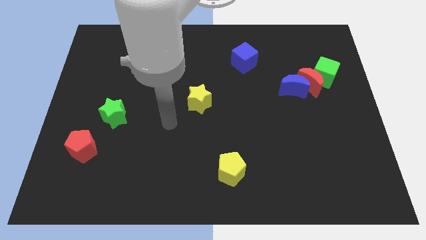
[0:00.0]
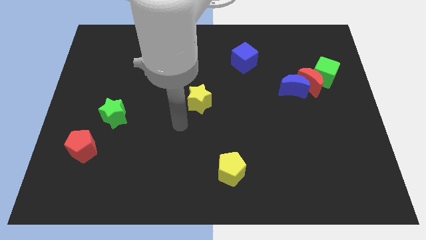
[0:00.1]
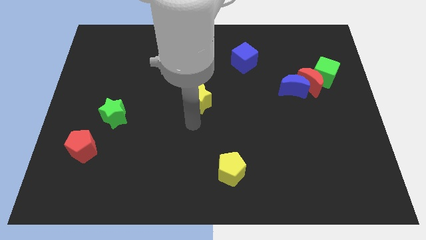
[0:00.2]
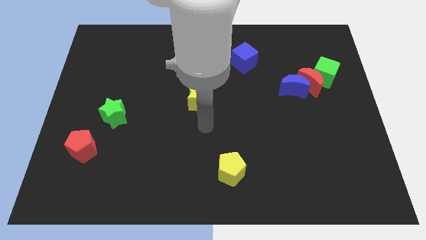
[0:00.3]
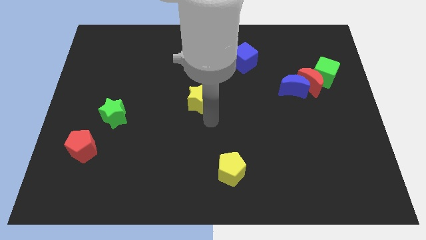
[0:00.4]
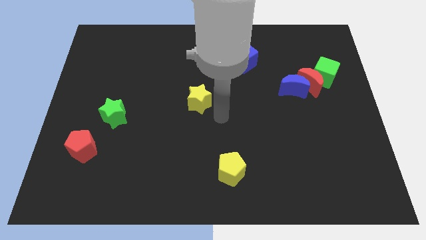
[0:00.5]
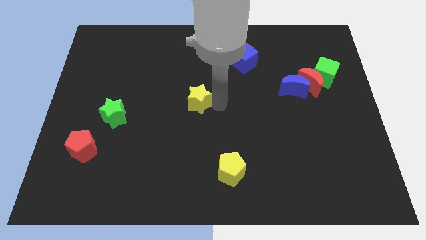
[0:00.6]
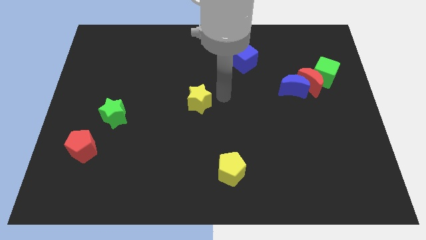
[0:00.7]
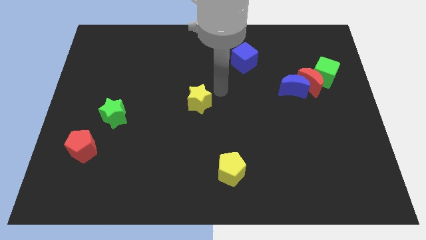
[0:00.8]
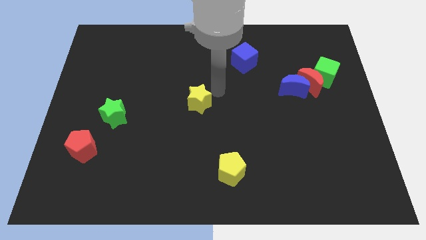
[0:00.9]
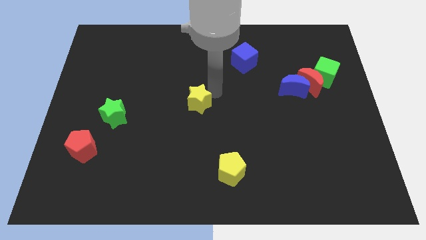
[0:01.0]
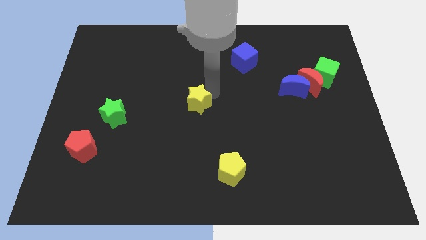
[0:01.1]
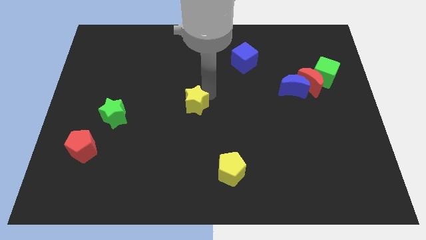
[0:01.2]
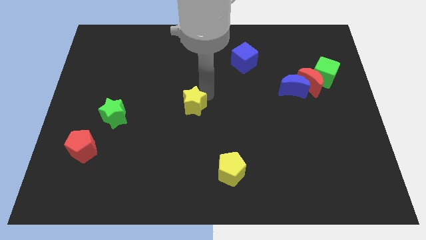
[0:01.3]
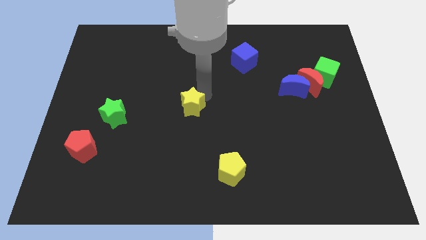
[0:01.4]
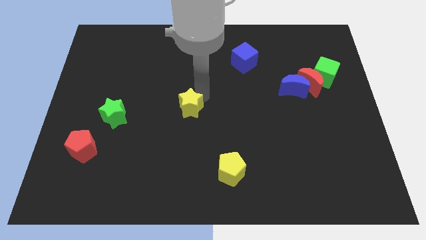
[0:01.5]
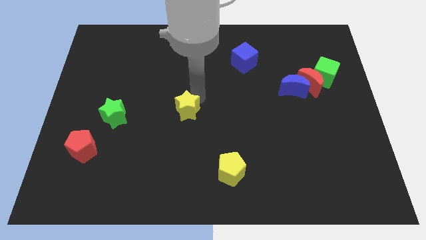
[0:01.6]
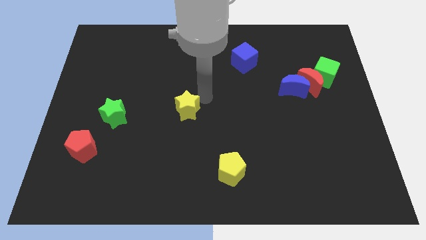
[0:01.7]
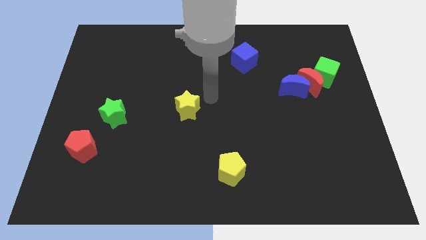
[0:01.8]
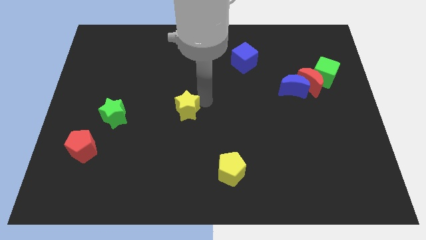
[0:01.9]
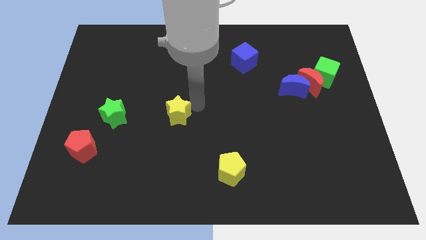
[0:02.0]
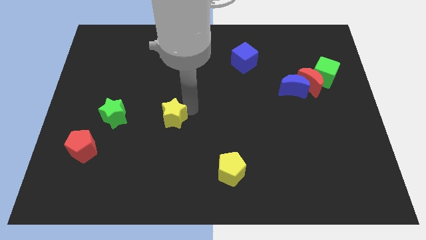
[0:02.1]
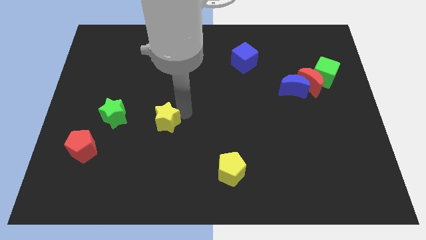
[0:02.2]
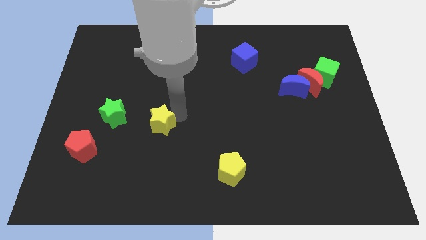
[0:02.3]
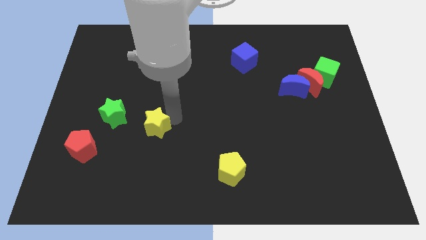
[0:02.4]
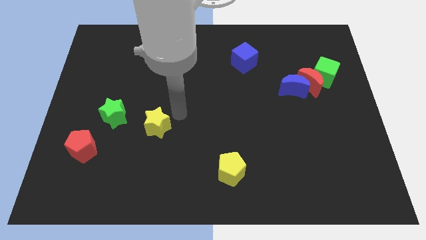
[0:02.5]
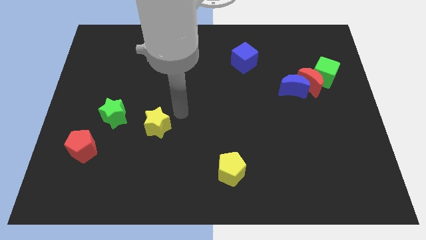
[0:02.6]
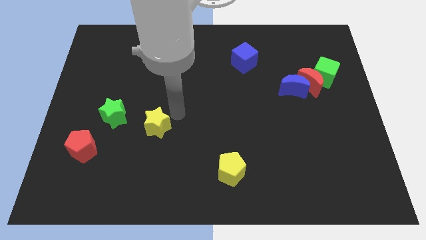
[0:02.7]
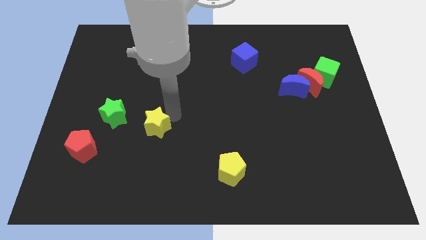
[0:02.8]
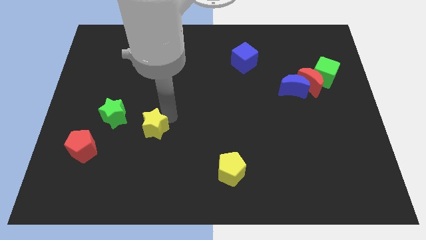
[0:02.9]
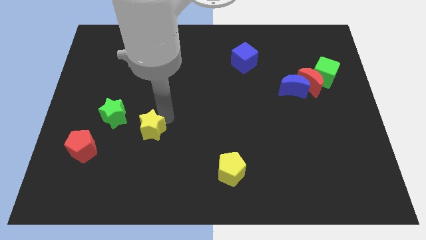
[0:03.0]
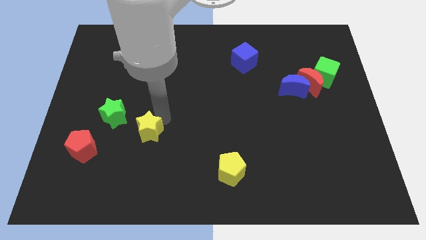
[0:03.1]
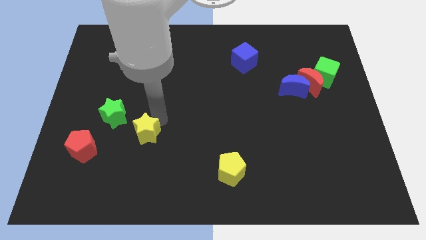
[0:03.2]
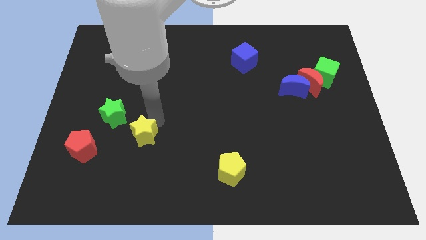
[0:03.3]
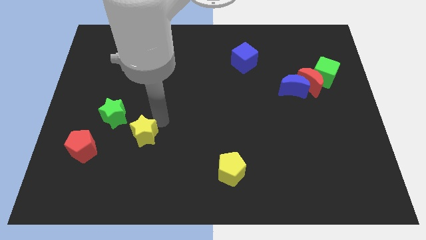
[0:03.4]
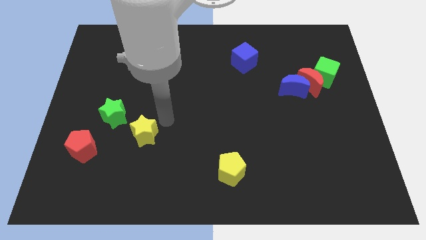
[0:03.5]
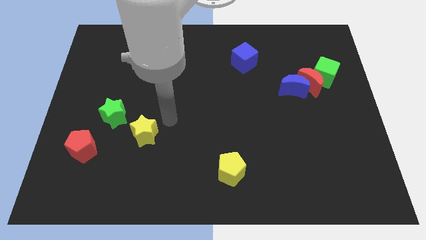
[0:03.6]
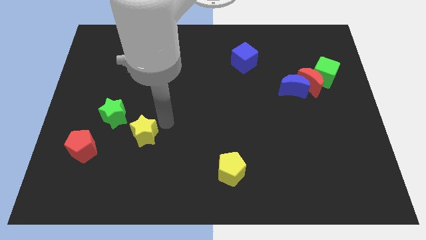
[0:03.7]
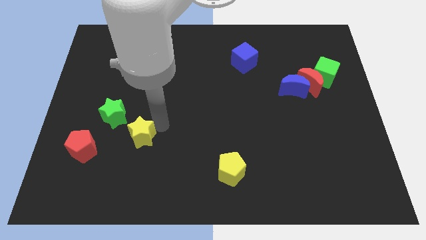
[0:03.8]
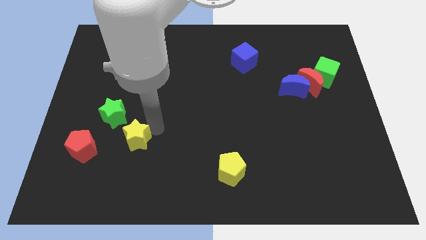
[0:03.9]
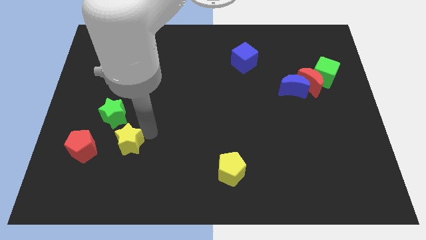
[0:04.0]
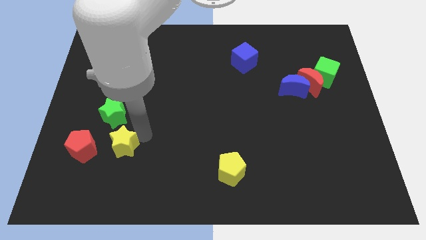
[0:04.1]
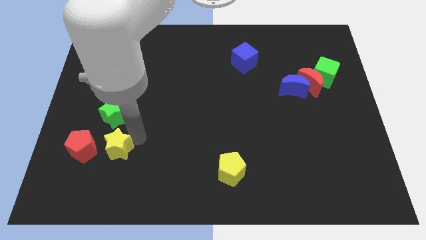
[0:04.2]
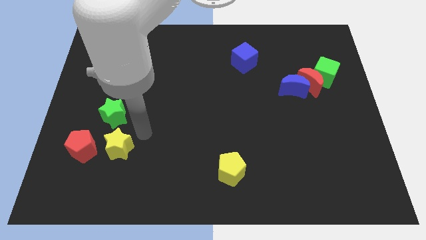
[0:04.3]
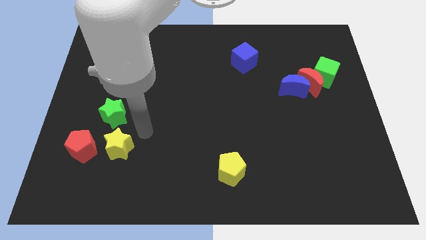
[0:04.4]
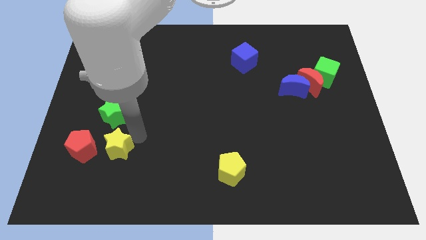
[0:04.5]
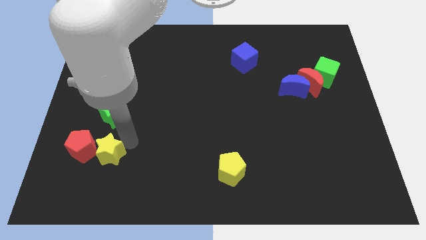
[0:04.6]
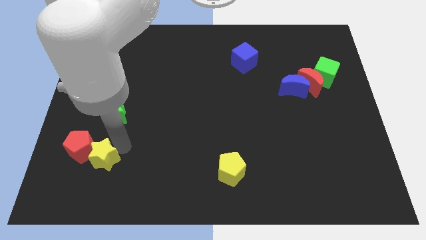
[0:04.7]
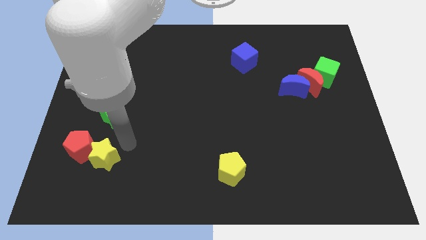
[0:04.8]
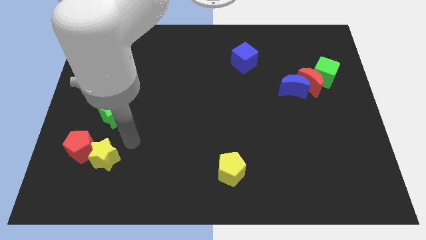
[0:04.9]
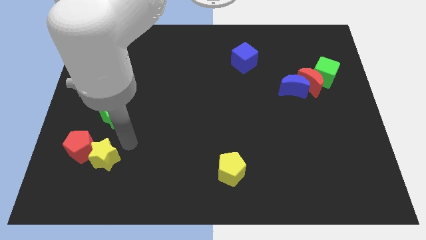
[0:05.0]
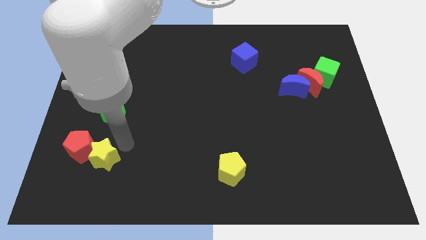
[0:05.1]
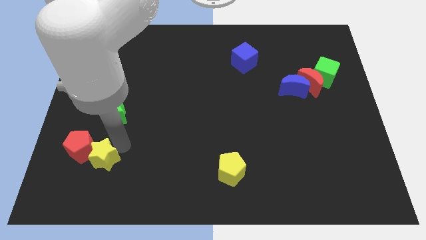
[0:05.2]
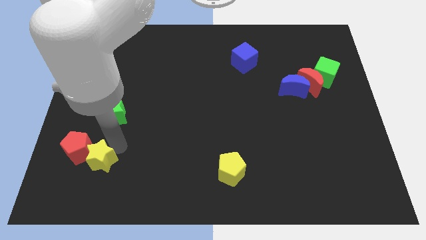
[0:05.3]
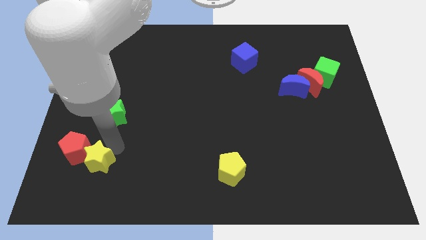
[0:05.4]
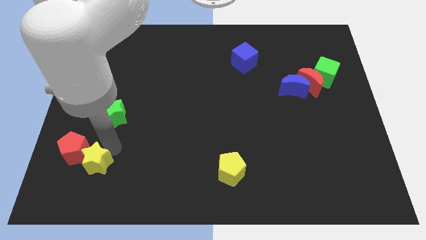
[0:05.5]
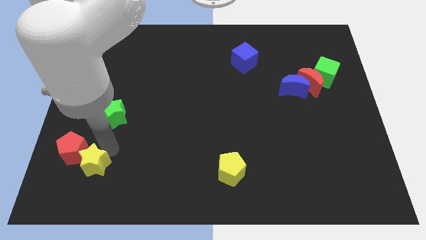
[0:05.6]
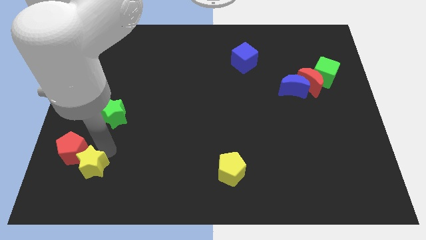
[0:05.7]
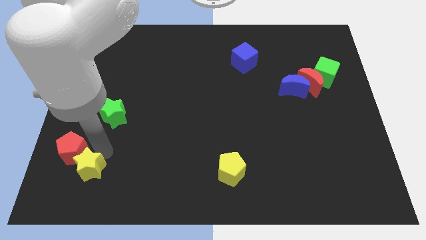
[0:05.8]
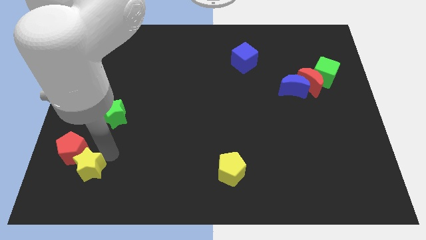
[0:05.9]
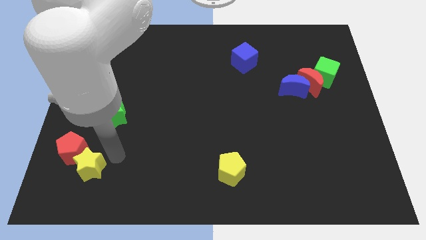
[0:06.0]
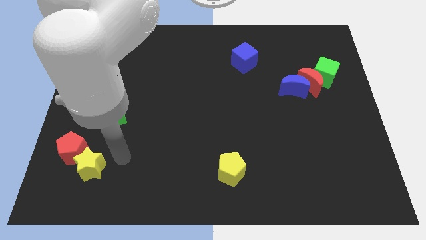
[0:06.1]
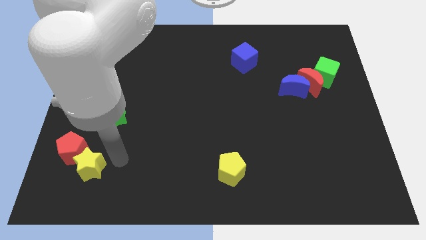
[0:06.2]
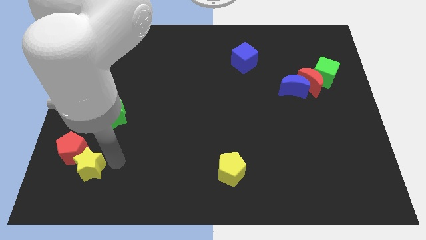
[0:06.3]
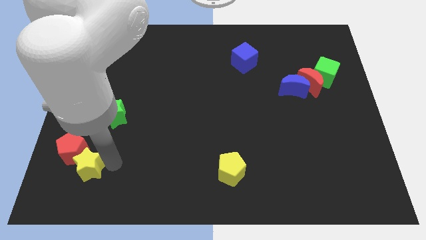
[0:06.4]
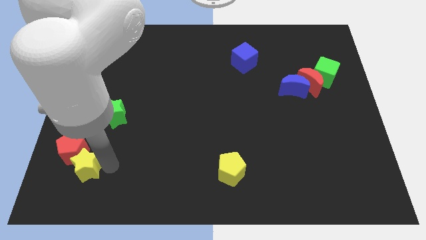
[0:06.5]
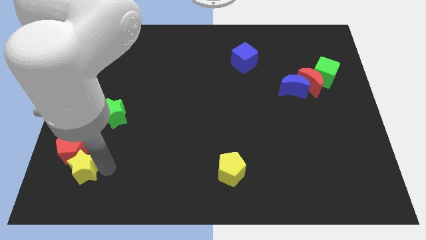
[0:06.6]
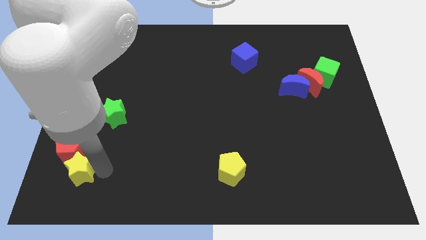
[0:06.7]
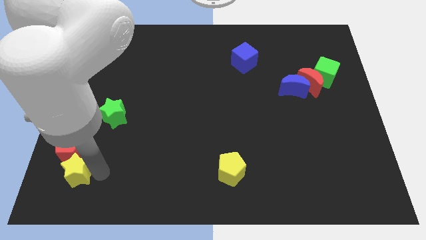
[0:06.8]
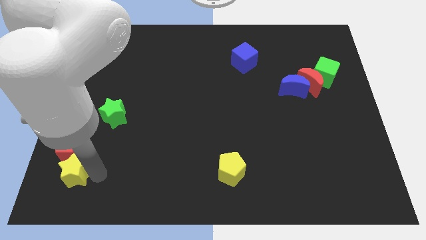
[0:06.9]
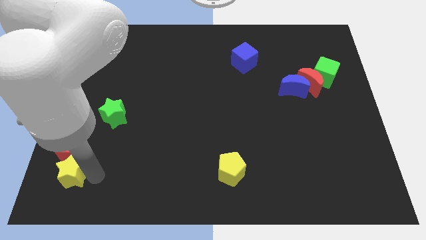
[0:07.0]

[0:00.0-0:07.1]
push the yellow star to the bottom left of the board
